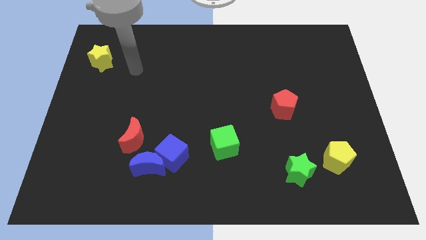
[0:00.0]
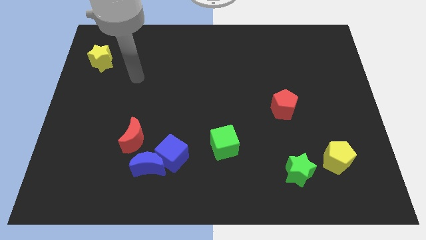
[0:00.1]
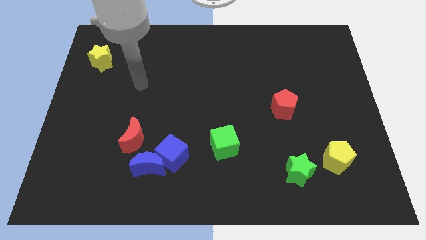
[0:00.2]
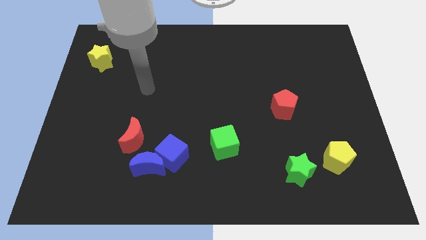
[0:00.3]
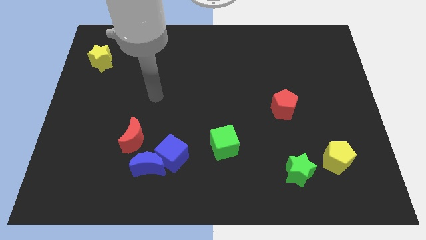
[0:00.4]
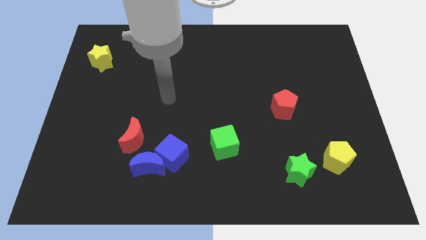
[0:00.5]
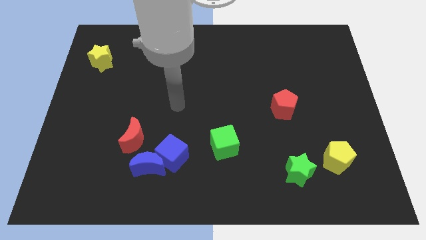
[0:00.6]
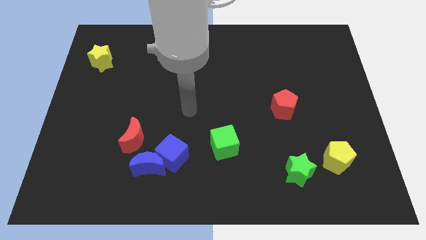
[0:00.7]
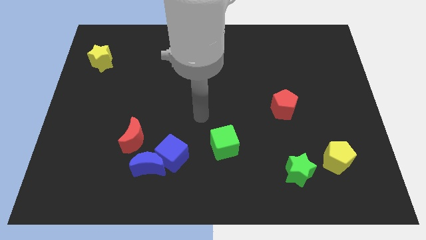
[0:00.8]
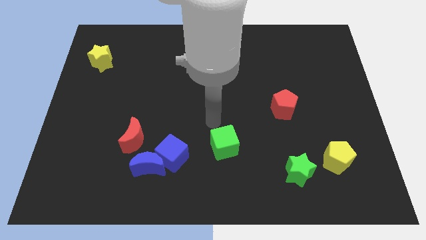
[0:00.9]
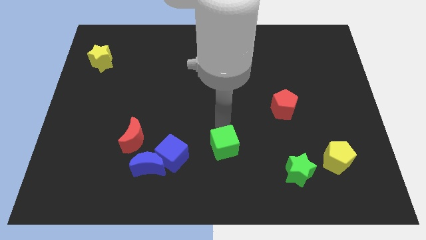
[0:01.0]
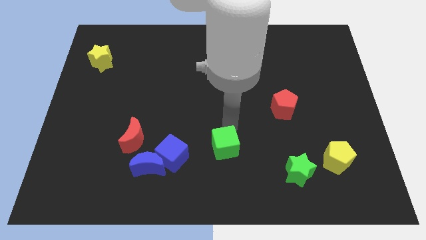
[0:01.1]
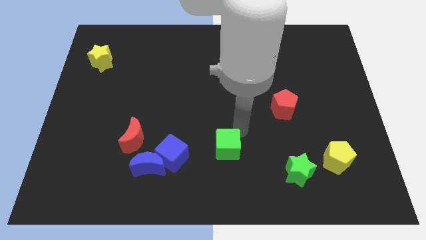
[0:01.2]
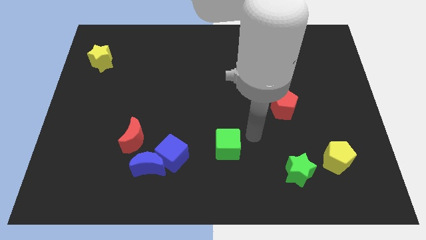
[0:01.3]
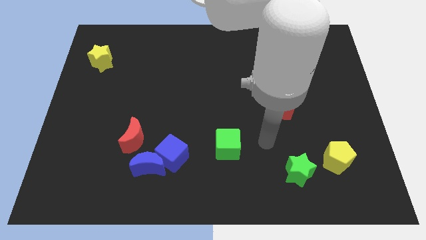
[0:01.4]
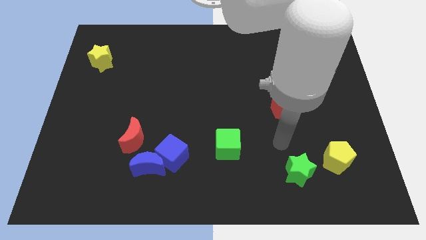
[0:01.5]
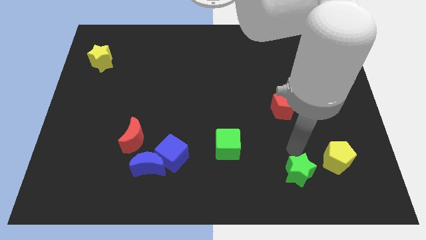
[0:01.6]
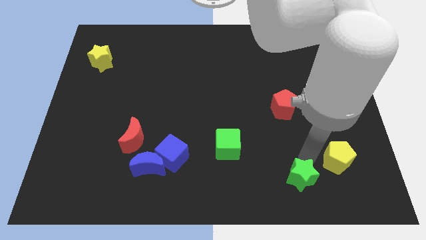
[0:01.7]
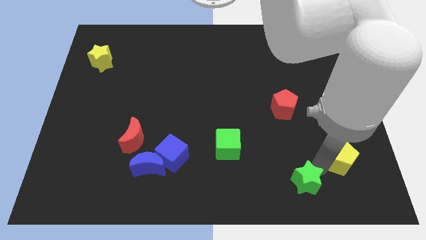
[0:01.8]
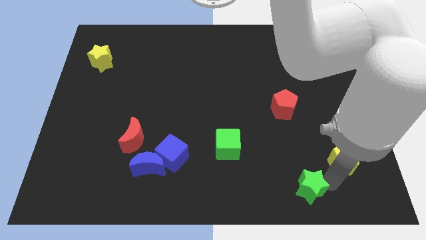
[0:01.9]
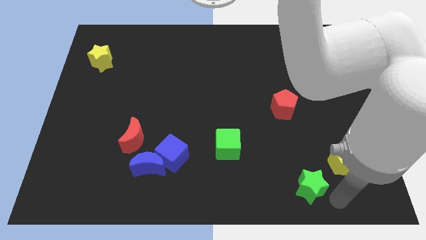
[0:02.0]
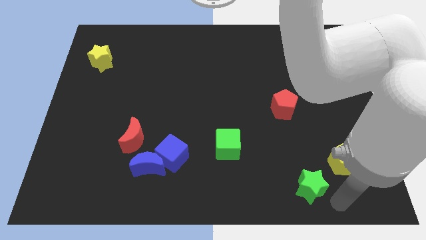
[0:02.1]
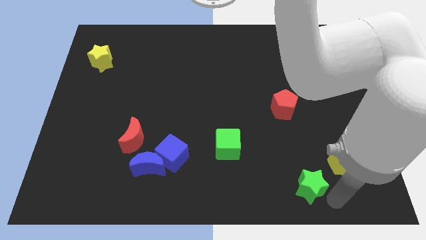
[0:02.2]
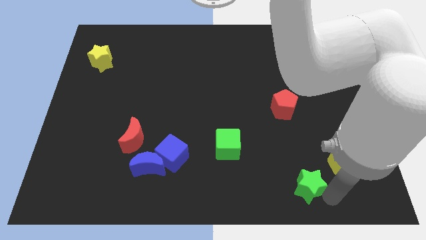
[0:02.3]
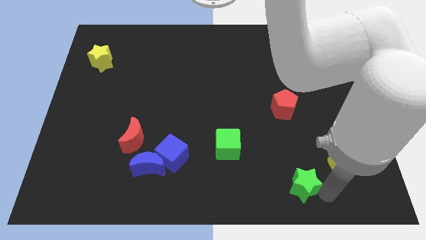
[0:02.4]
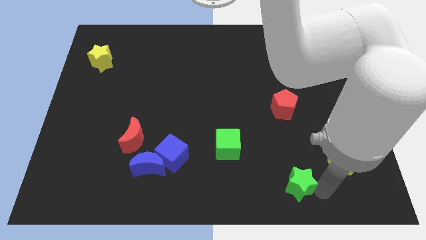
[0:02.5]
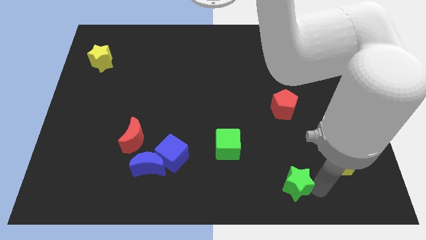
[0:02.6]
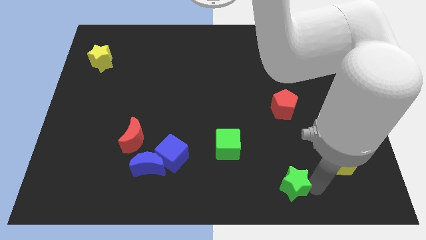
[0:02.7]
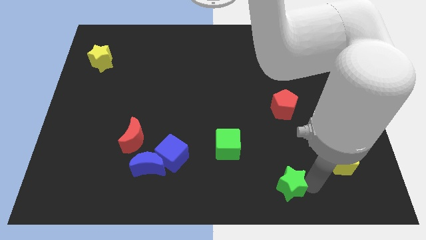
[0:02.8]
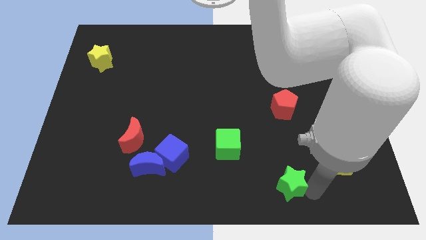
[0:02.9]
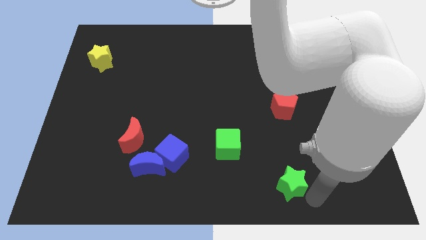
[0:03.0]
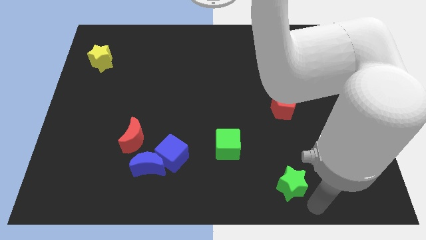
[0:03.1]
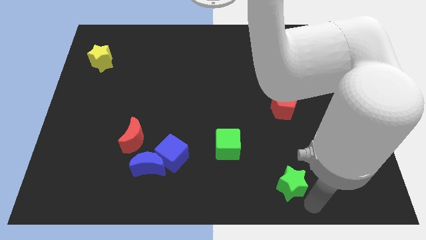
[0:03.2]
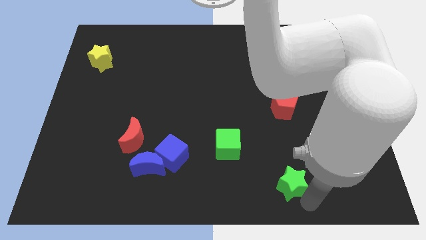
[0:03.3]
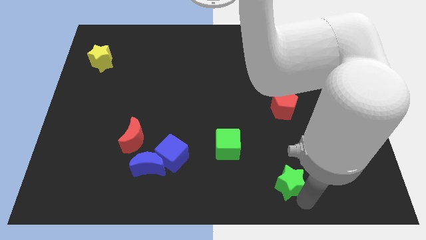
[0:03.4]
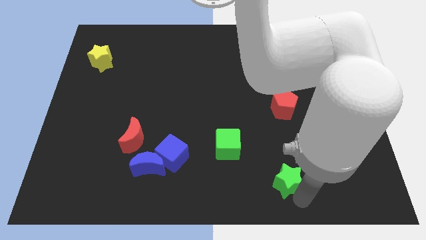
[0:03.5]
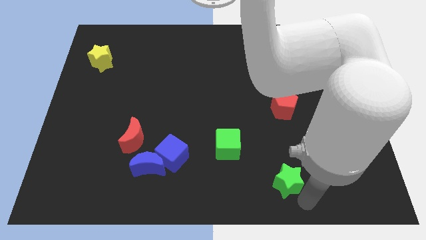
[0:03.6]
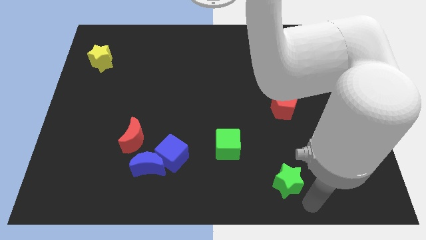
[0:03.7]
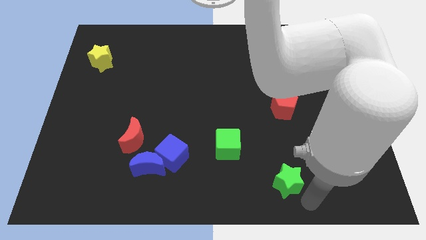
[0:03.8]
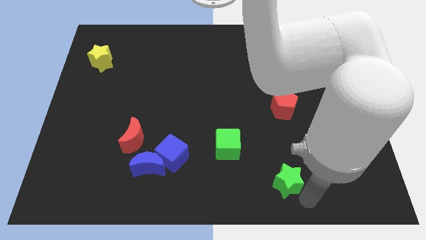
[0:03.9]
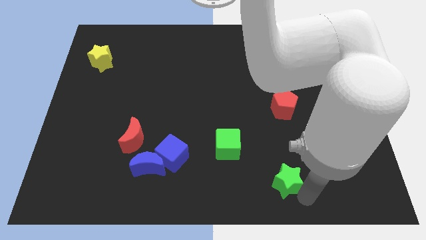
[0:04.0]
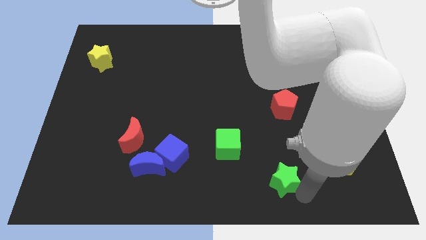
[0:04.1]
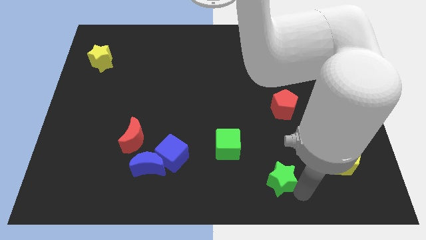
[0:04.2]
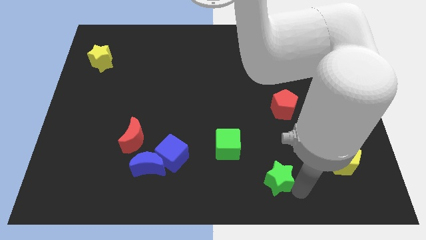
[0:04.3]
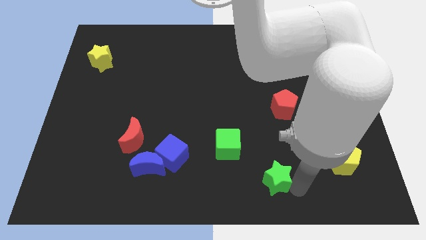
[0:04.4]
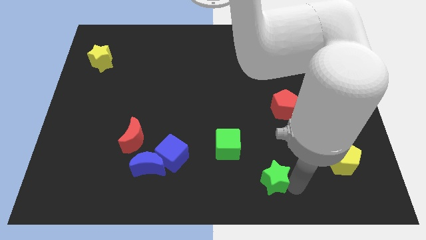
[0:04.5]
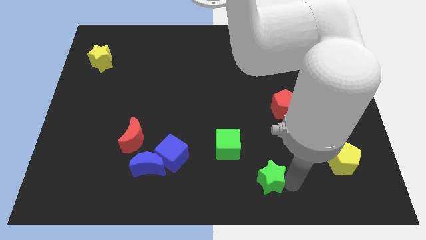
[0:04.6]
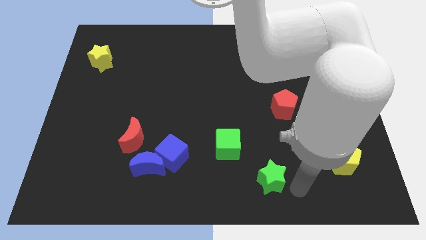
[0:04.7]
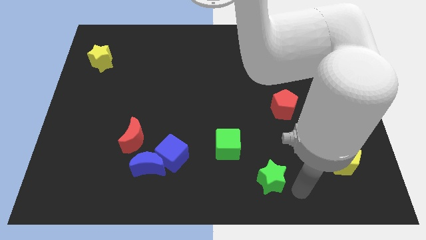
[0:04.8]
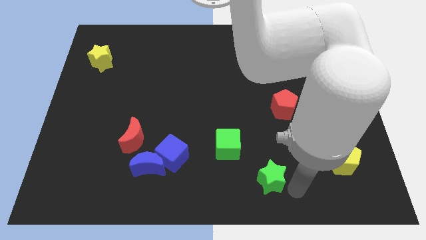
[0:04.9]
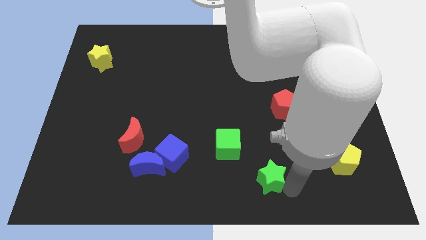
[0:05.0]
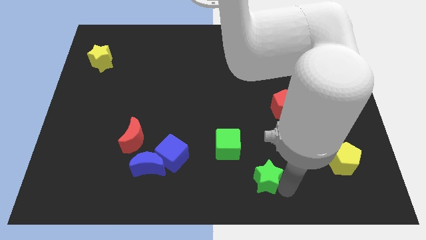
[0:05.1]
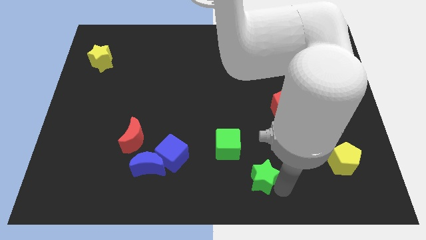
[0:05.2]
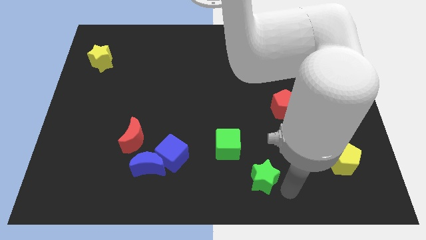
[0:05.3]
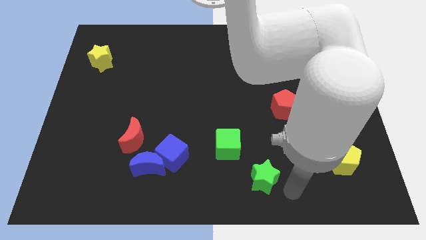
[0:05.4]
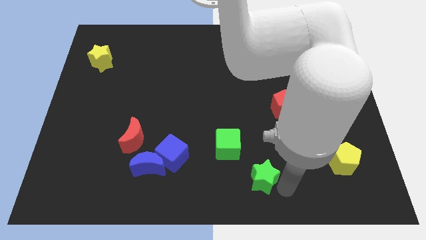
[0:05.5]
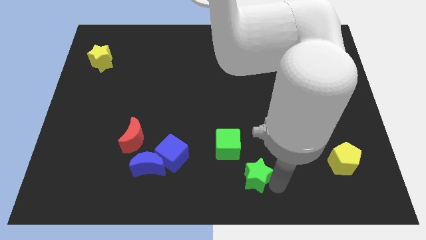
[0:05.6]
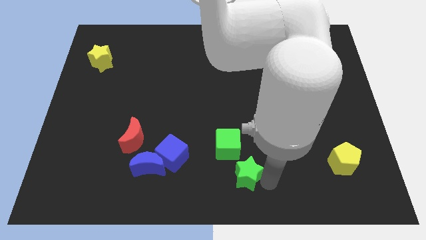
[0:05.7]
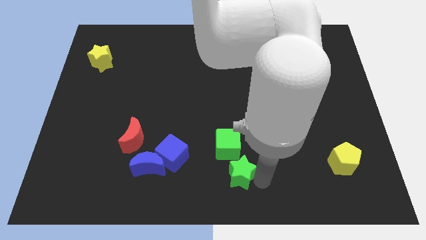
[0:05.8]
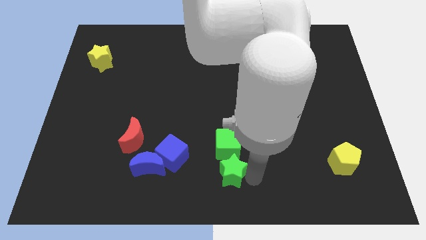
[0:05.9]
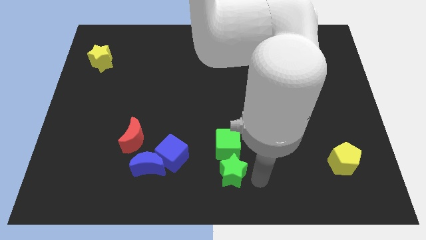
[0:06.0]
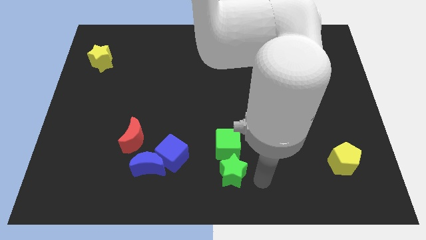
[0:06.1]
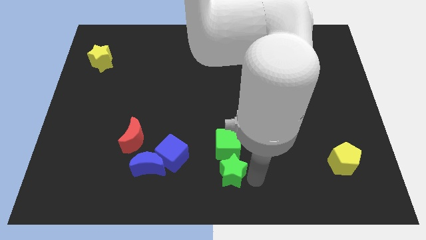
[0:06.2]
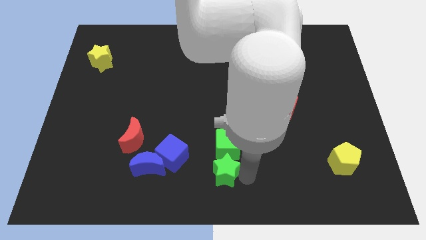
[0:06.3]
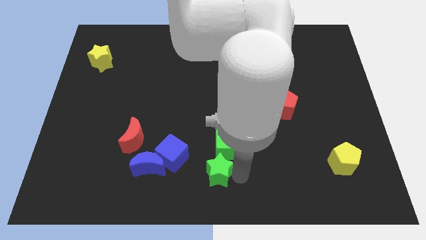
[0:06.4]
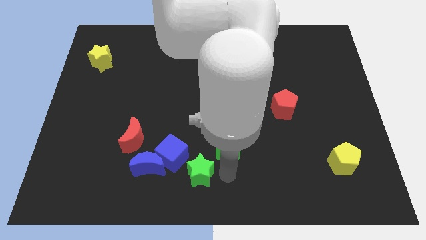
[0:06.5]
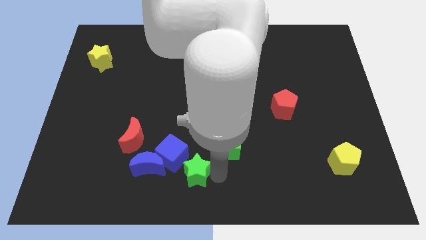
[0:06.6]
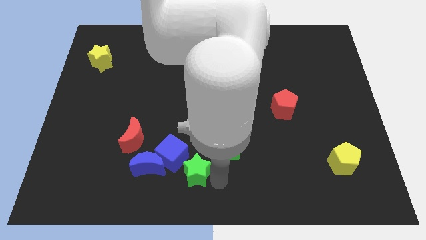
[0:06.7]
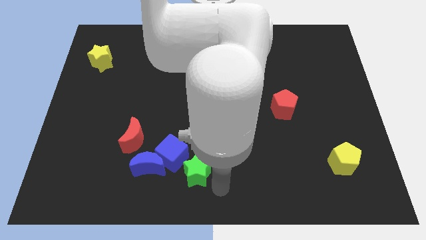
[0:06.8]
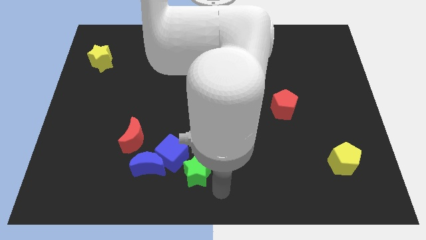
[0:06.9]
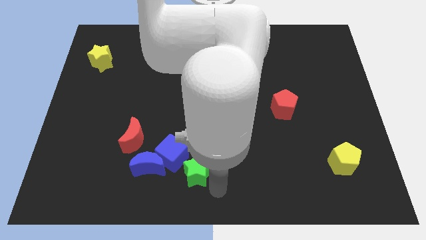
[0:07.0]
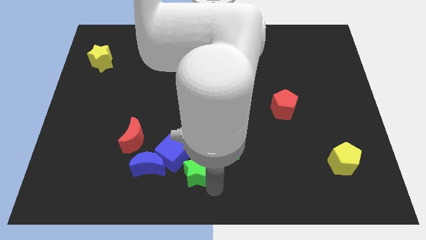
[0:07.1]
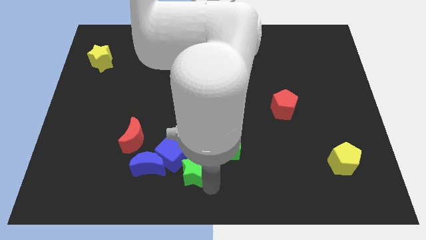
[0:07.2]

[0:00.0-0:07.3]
move the green star close to the blue cube

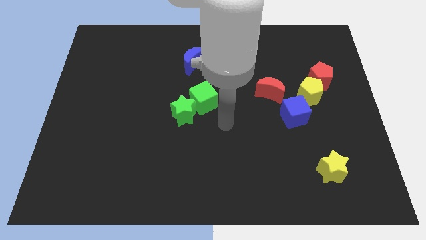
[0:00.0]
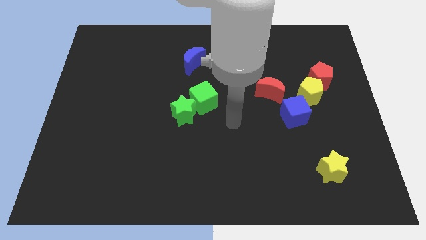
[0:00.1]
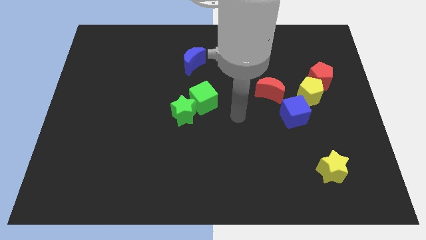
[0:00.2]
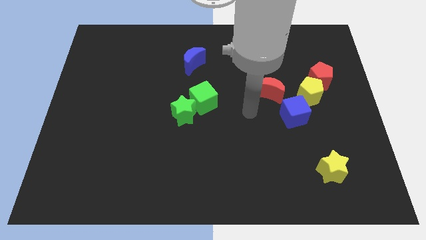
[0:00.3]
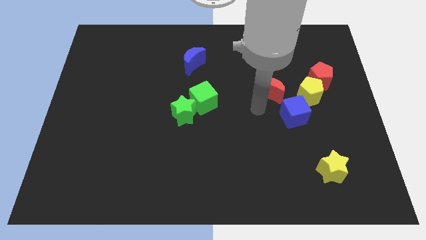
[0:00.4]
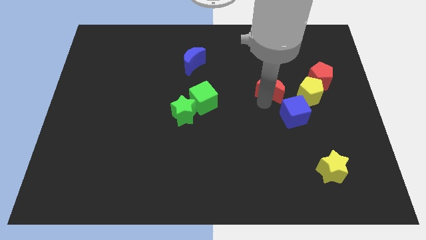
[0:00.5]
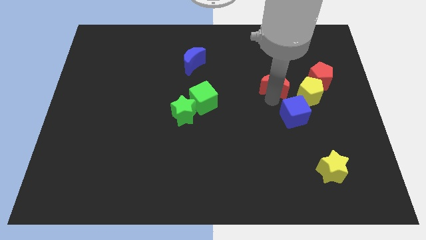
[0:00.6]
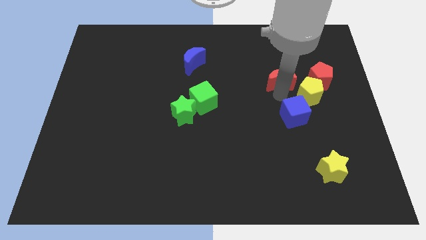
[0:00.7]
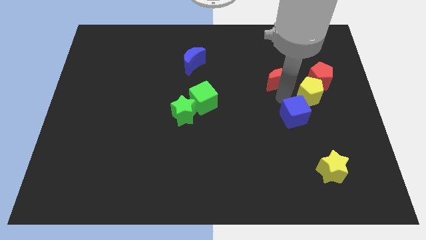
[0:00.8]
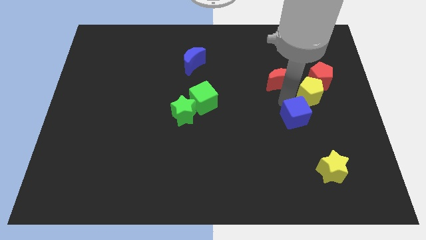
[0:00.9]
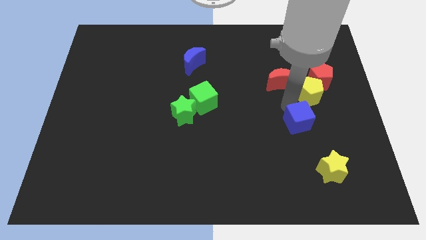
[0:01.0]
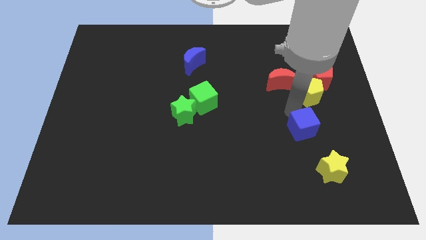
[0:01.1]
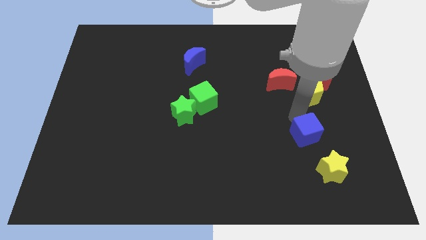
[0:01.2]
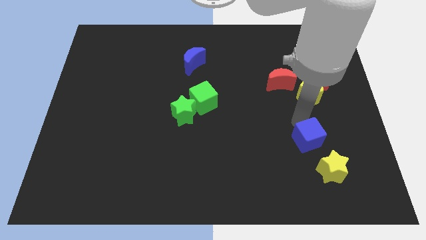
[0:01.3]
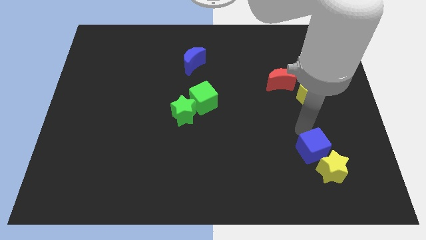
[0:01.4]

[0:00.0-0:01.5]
push the blue cube close to the yellow star
